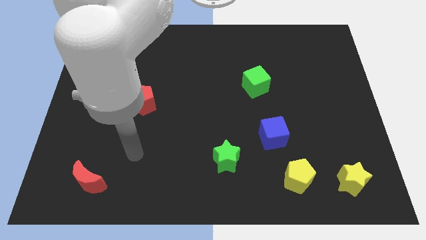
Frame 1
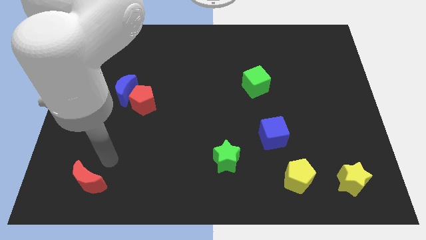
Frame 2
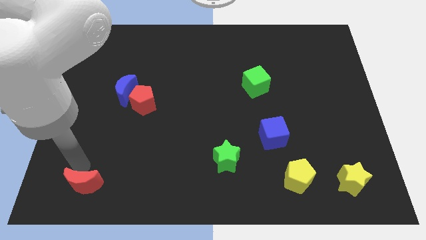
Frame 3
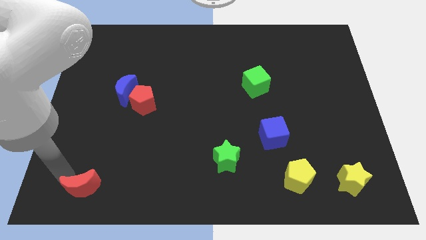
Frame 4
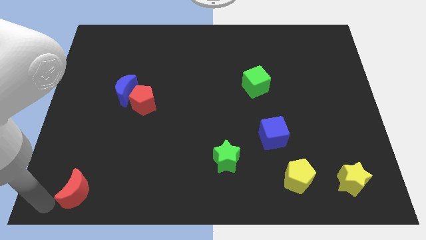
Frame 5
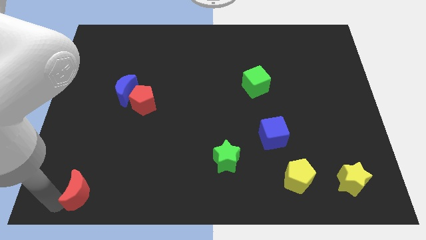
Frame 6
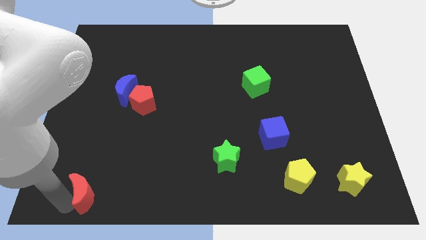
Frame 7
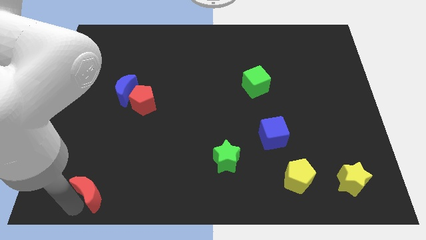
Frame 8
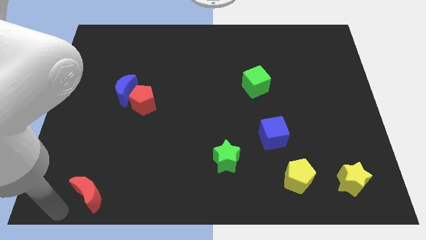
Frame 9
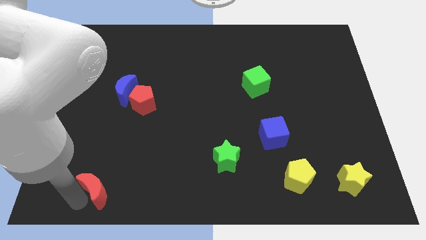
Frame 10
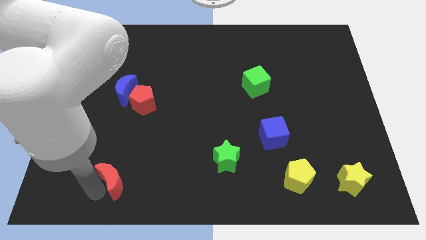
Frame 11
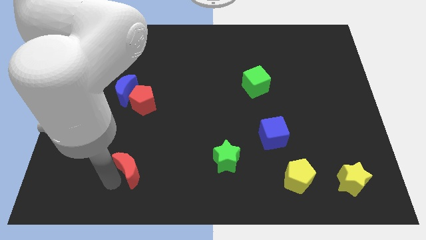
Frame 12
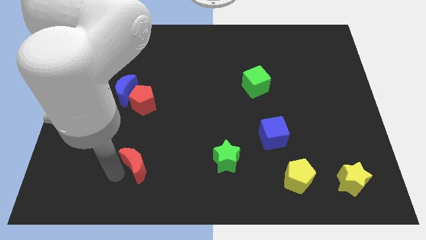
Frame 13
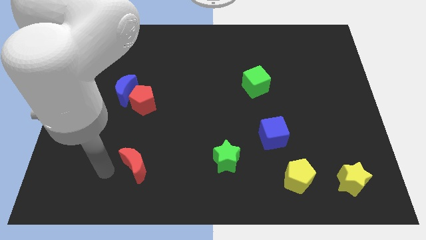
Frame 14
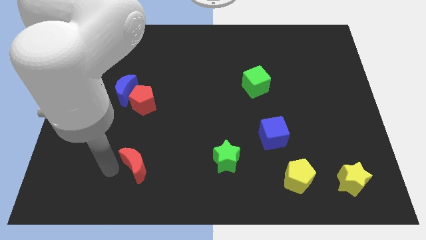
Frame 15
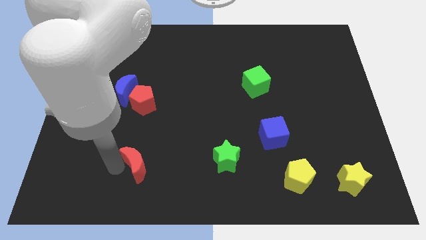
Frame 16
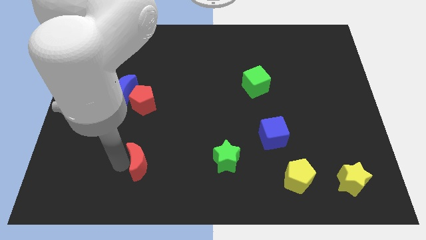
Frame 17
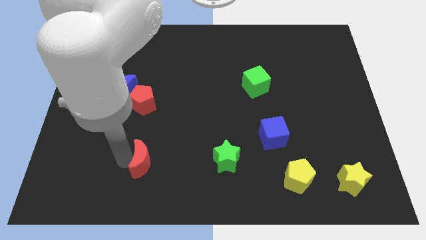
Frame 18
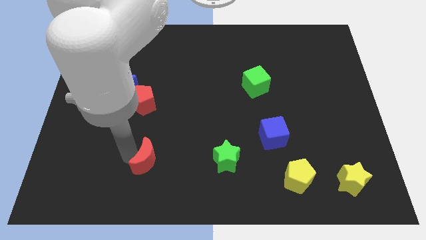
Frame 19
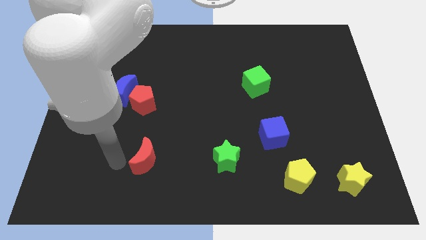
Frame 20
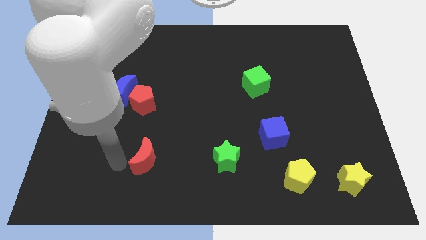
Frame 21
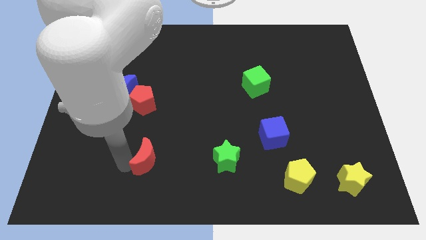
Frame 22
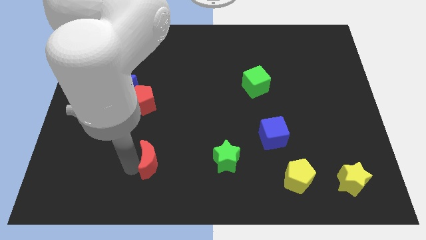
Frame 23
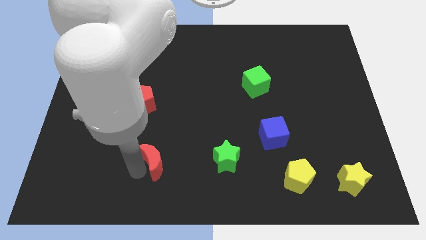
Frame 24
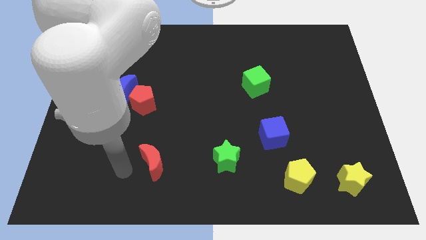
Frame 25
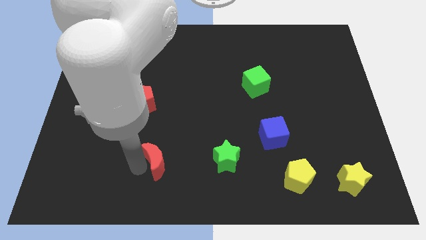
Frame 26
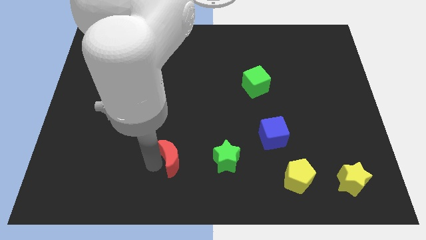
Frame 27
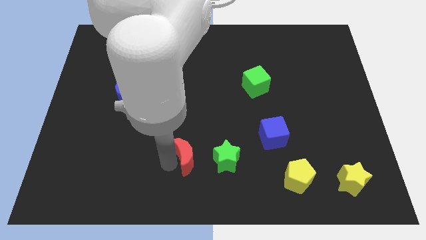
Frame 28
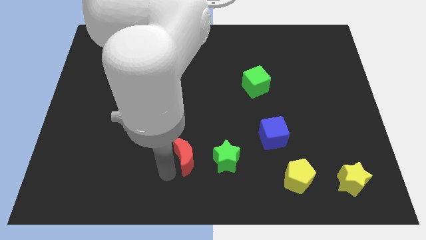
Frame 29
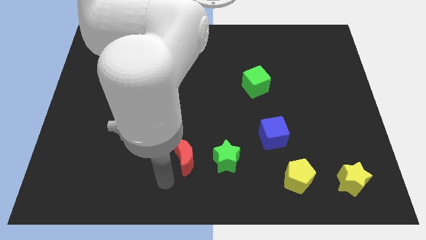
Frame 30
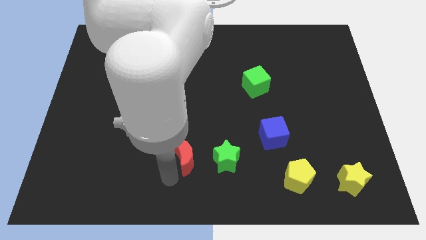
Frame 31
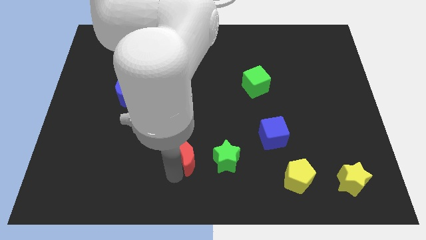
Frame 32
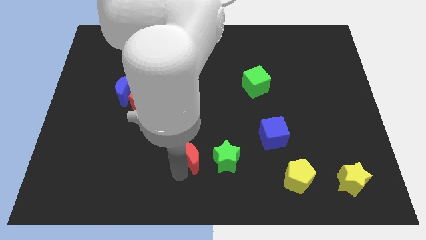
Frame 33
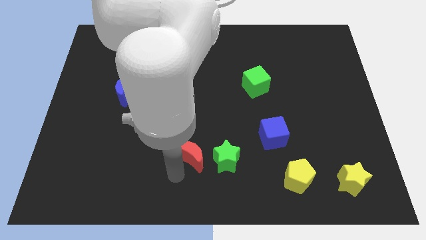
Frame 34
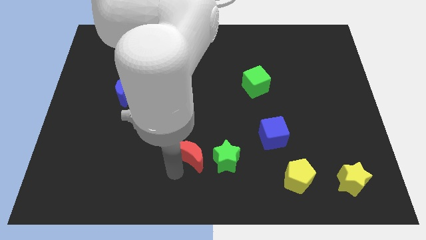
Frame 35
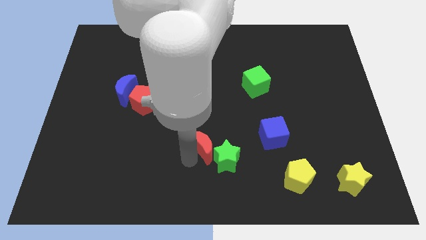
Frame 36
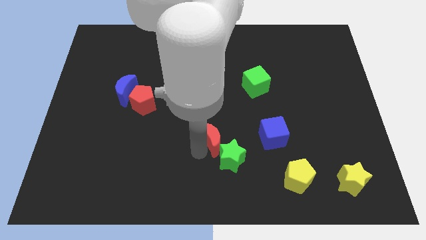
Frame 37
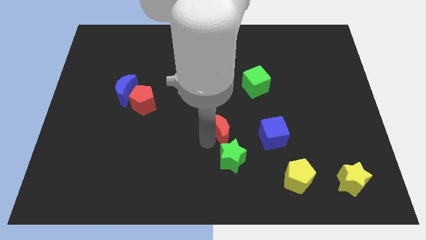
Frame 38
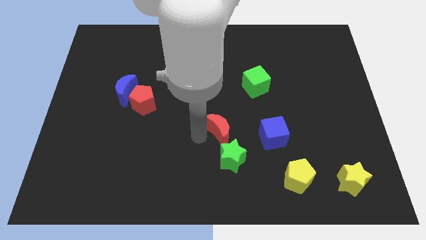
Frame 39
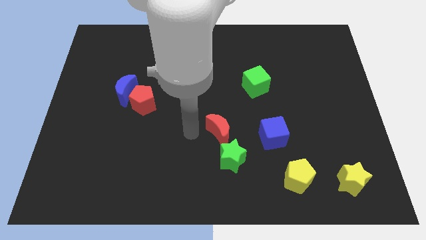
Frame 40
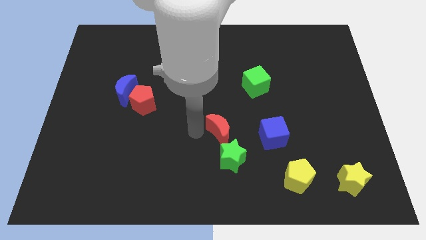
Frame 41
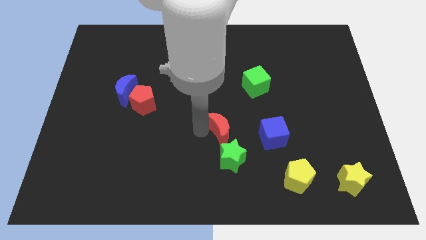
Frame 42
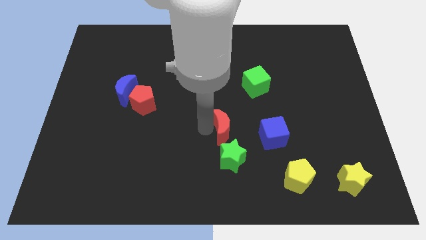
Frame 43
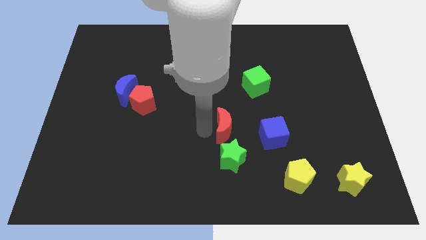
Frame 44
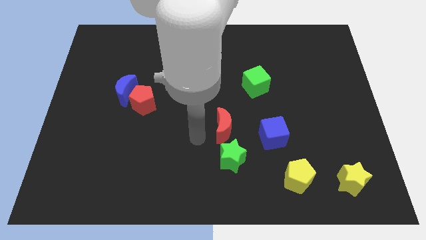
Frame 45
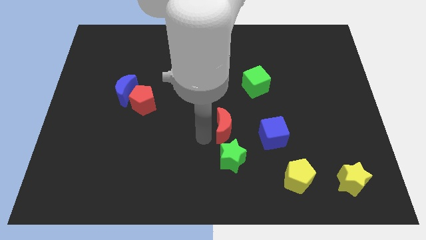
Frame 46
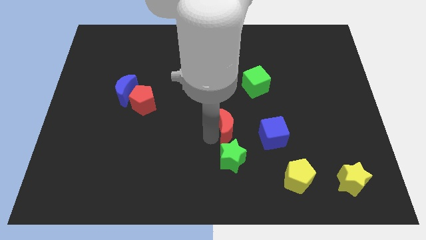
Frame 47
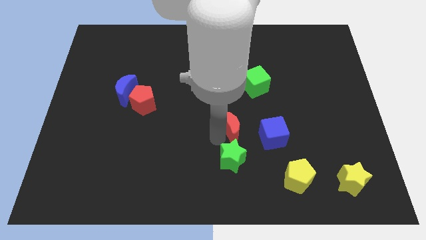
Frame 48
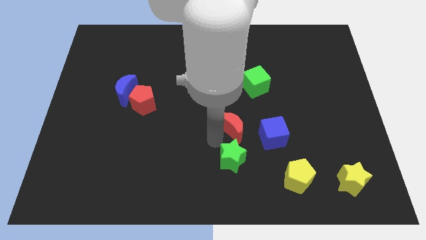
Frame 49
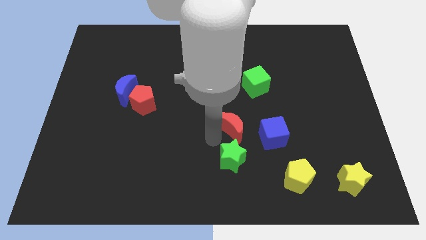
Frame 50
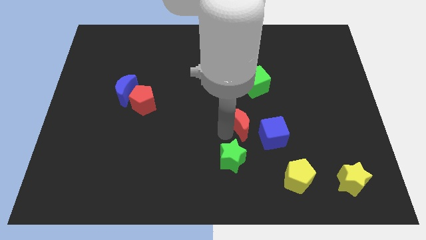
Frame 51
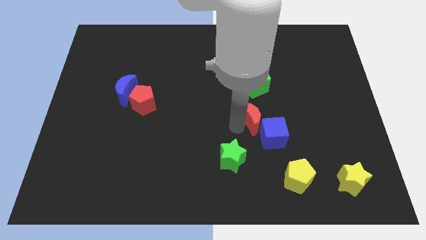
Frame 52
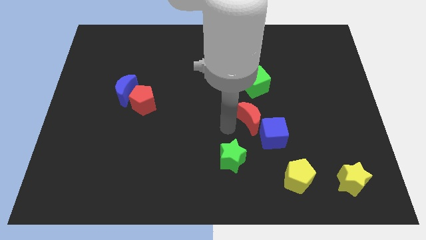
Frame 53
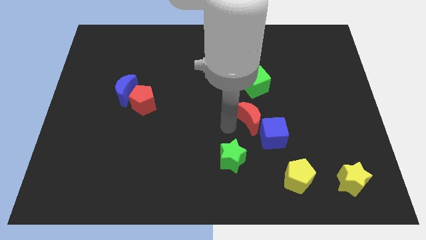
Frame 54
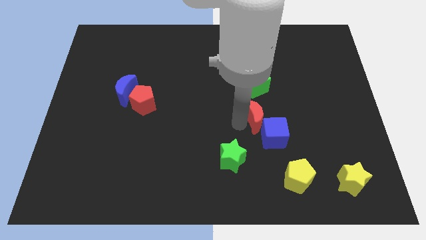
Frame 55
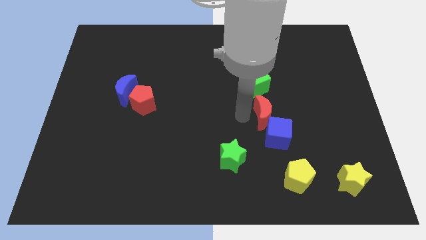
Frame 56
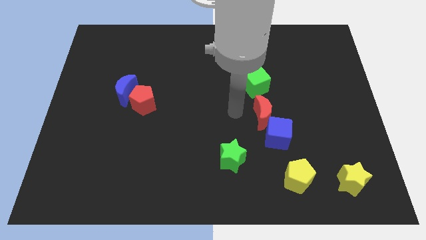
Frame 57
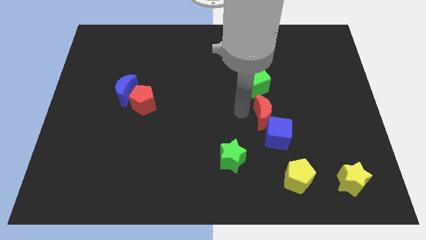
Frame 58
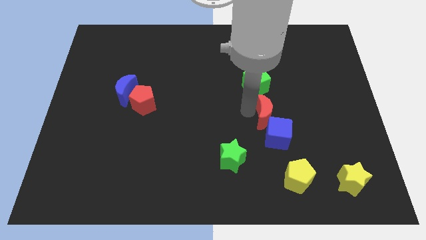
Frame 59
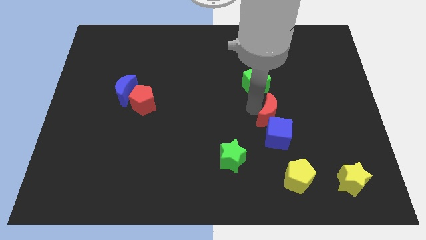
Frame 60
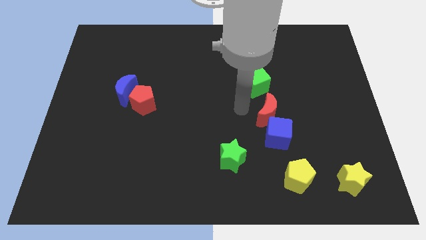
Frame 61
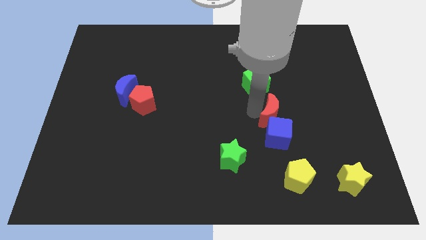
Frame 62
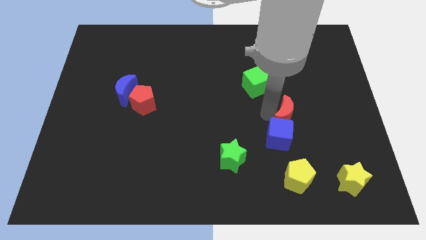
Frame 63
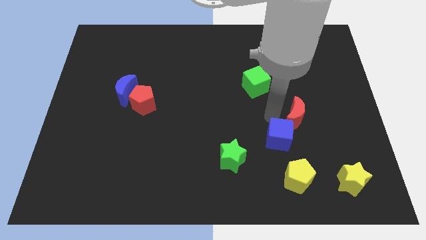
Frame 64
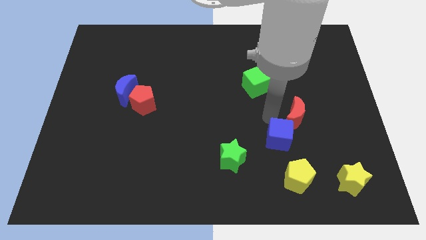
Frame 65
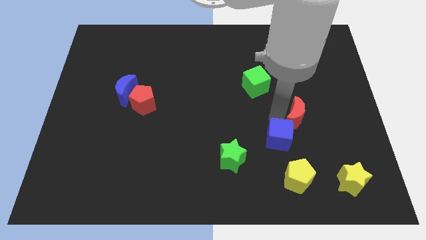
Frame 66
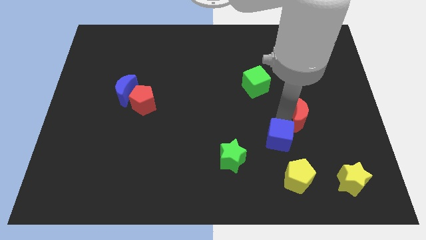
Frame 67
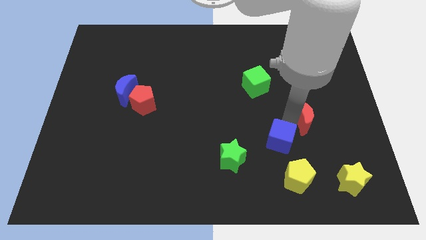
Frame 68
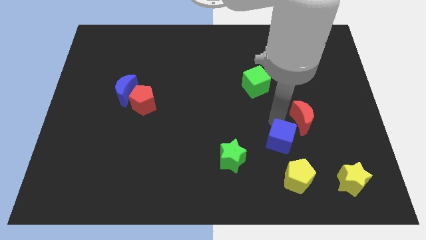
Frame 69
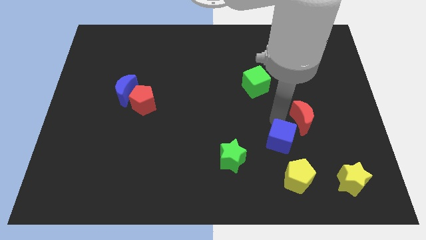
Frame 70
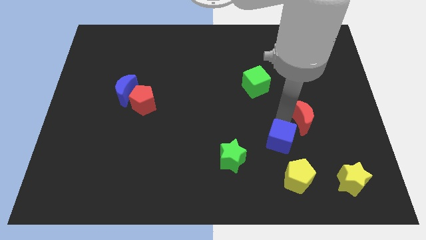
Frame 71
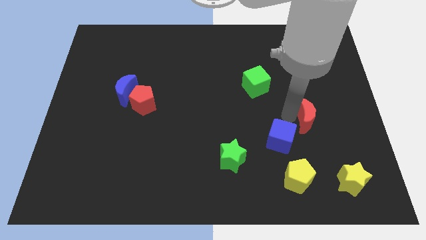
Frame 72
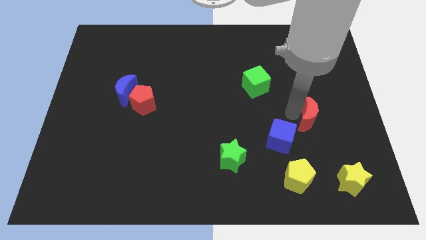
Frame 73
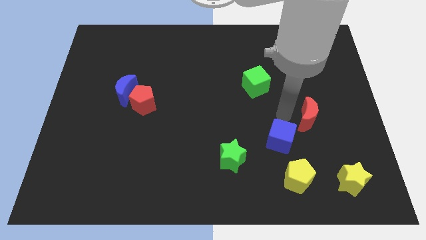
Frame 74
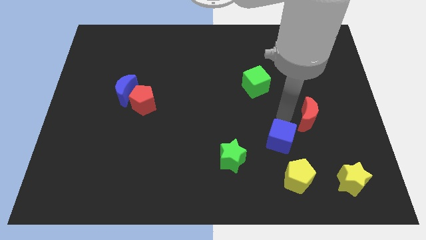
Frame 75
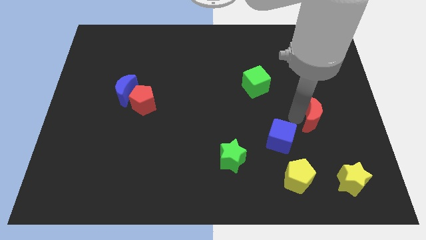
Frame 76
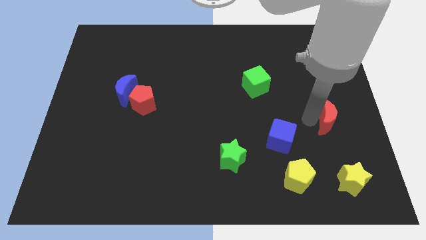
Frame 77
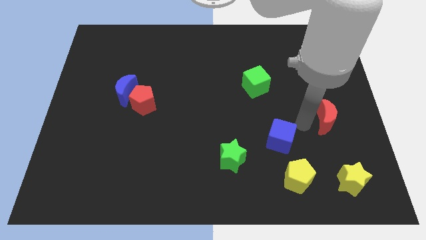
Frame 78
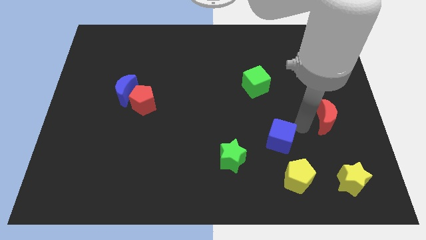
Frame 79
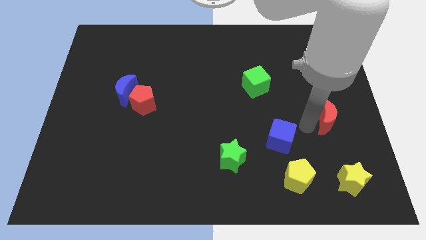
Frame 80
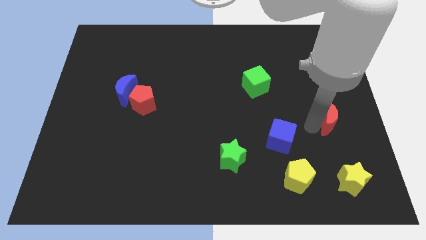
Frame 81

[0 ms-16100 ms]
push the red moon to the right side
